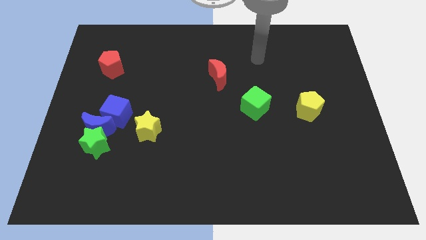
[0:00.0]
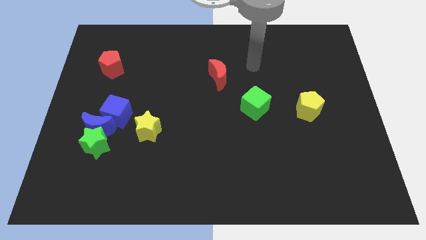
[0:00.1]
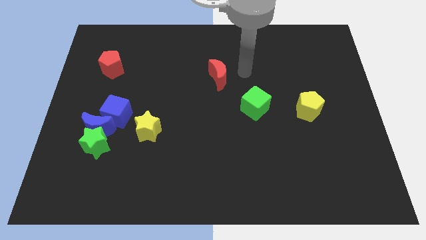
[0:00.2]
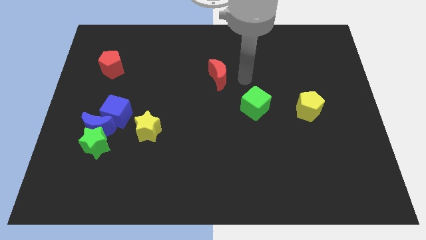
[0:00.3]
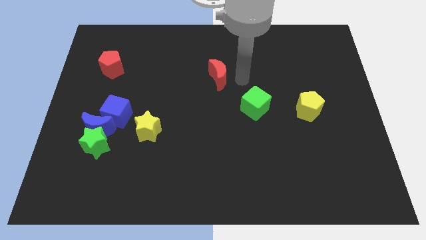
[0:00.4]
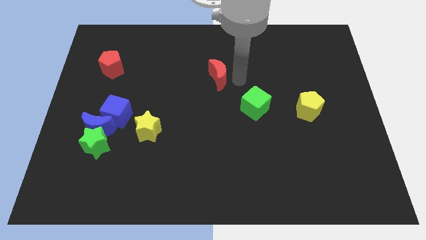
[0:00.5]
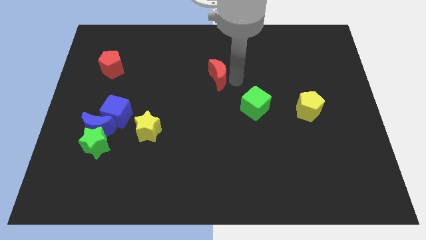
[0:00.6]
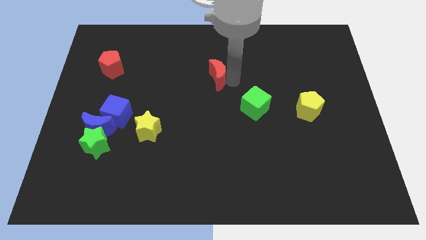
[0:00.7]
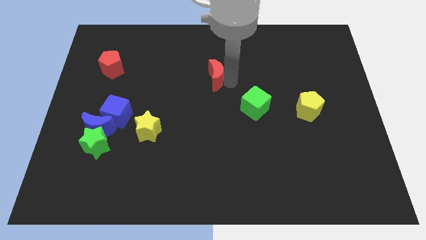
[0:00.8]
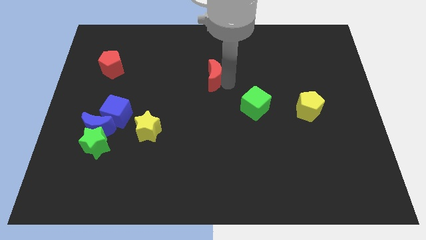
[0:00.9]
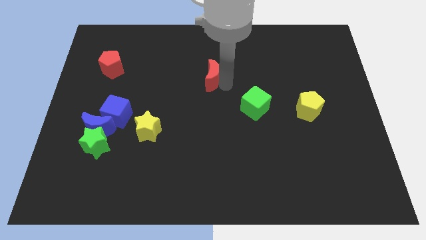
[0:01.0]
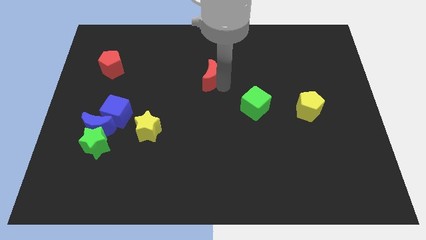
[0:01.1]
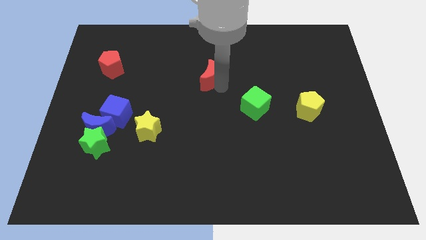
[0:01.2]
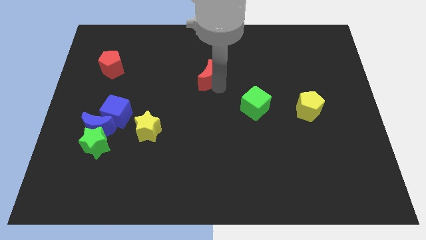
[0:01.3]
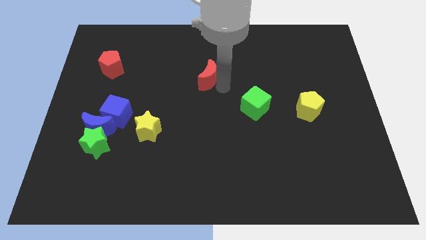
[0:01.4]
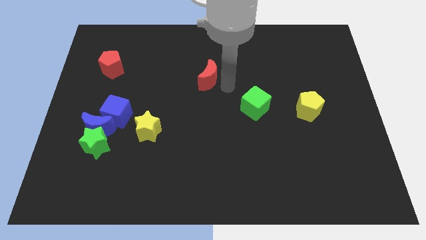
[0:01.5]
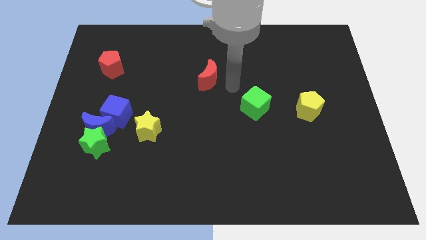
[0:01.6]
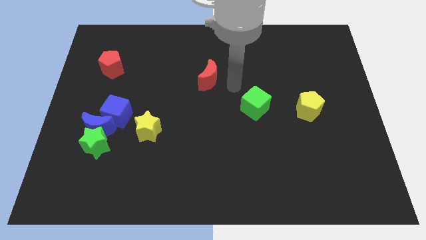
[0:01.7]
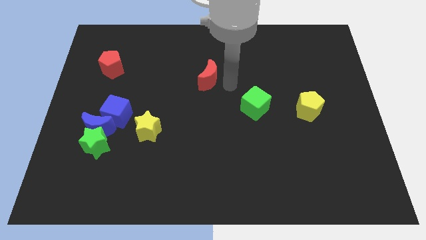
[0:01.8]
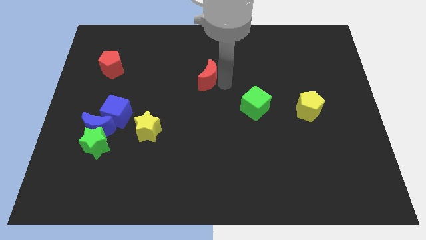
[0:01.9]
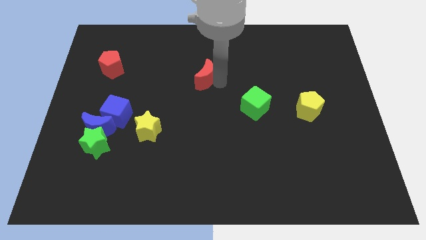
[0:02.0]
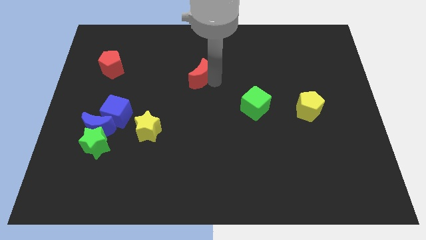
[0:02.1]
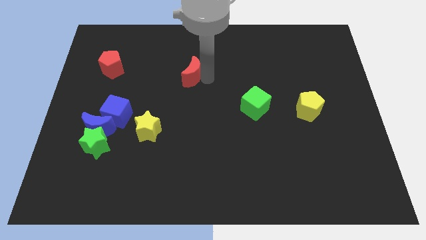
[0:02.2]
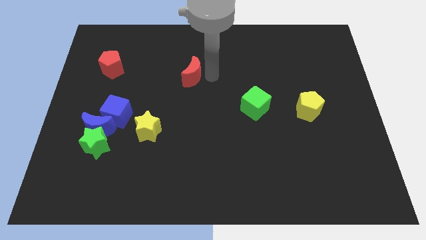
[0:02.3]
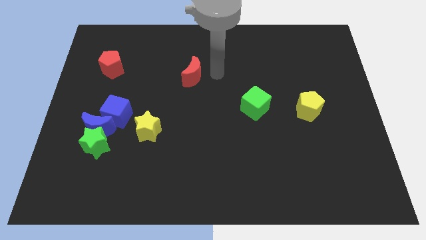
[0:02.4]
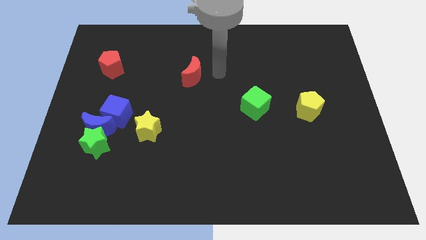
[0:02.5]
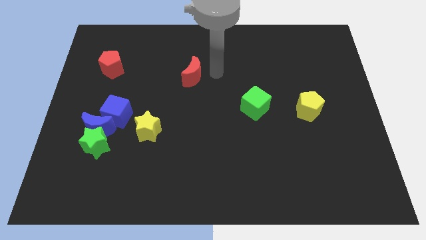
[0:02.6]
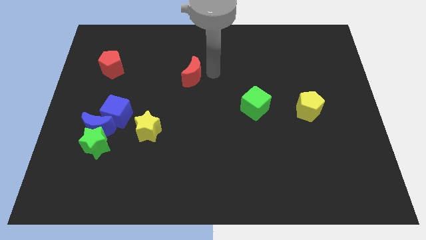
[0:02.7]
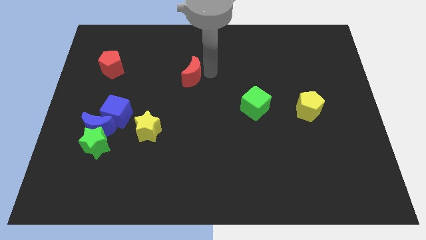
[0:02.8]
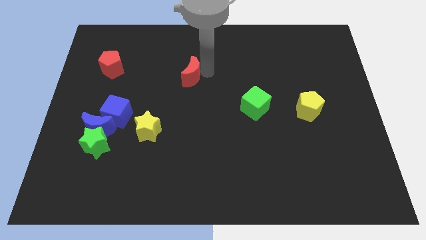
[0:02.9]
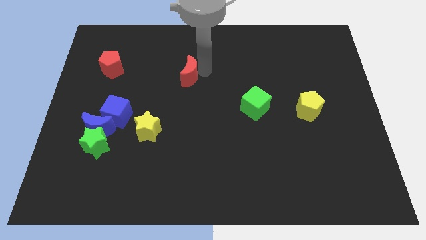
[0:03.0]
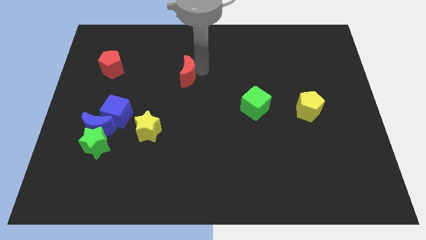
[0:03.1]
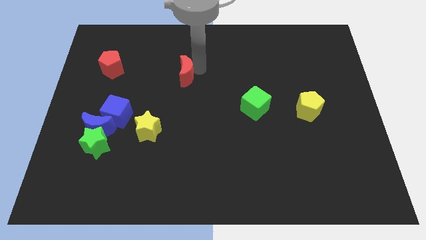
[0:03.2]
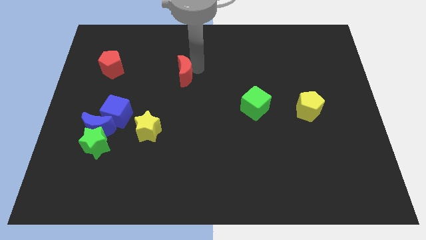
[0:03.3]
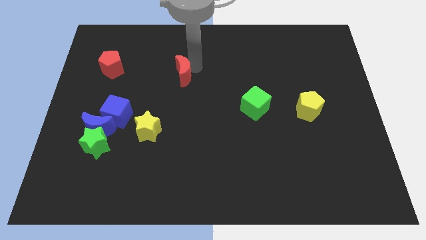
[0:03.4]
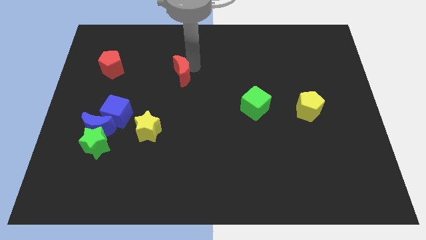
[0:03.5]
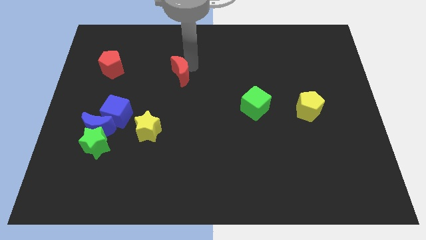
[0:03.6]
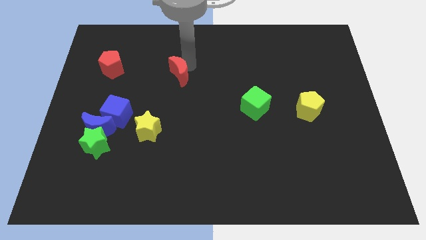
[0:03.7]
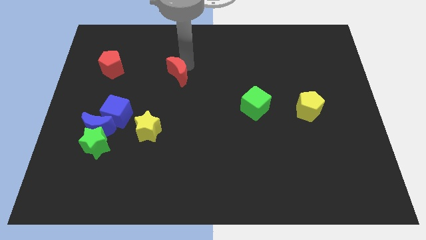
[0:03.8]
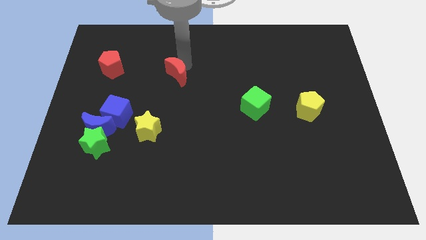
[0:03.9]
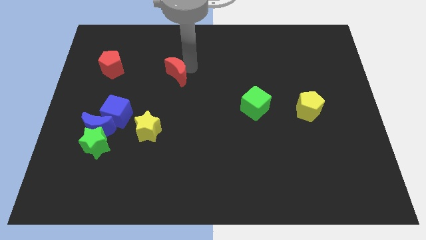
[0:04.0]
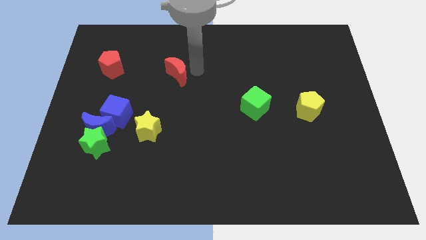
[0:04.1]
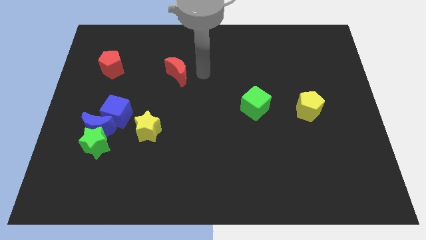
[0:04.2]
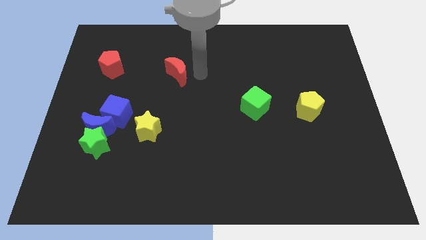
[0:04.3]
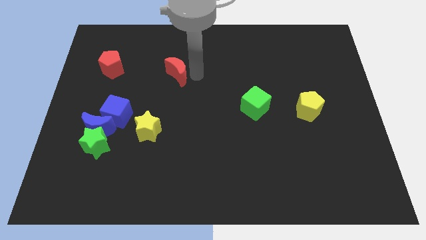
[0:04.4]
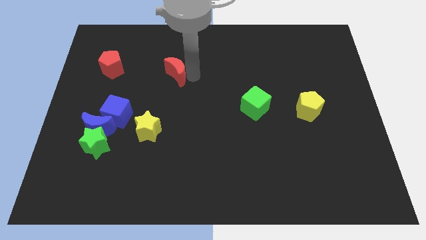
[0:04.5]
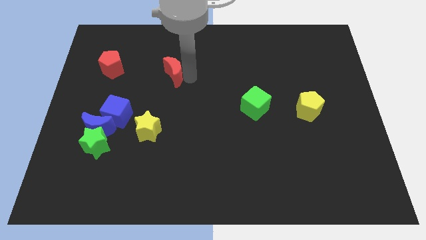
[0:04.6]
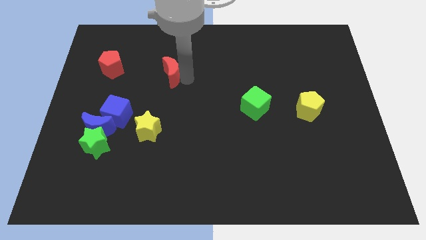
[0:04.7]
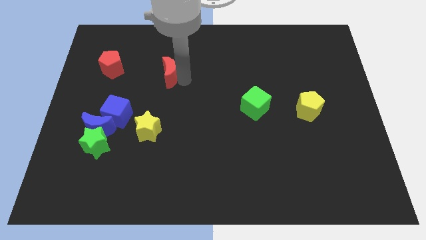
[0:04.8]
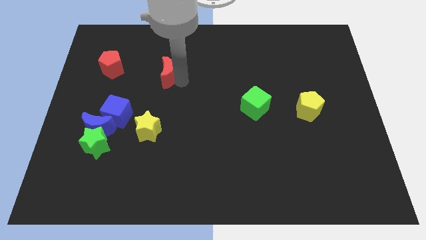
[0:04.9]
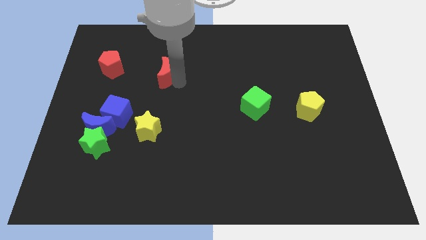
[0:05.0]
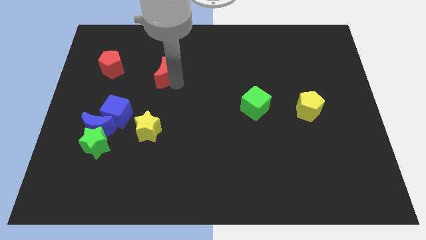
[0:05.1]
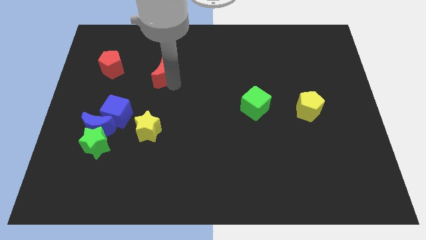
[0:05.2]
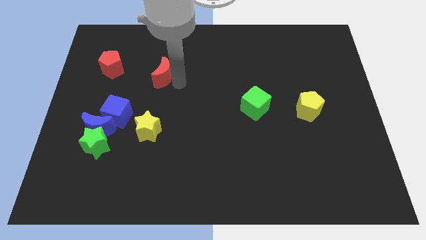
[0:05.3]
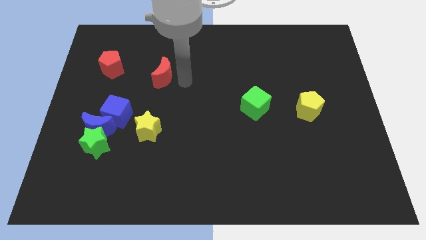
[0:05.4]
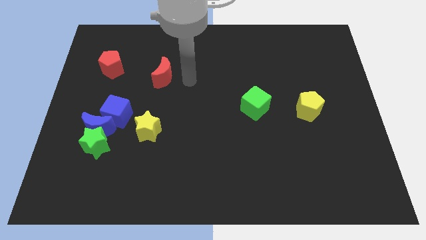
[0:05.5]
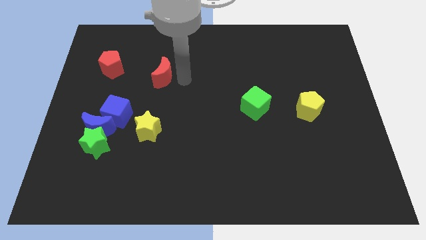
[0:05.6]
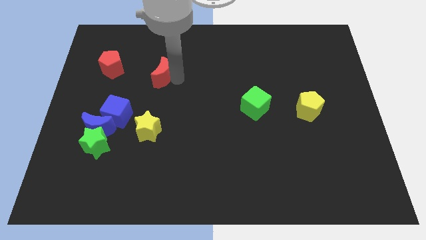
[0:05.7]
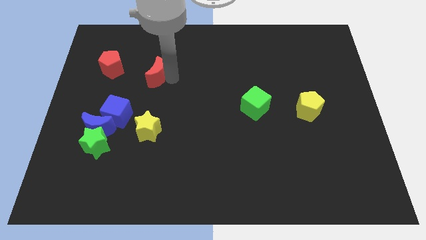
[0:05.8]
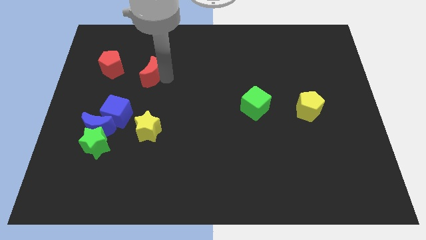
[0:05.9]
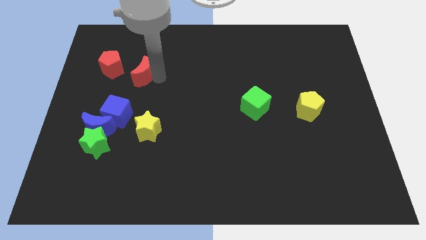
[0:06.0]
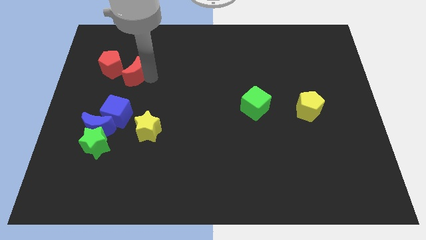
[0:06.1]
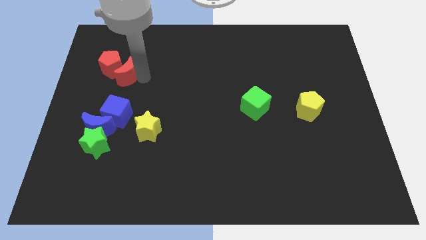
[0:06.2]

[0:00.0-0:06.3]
slide the red moon towards the red pentagon

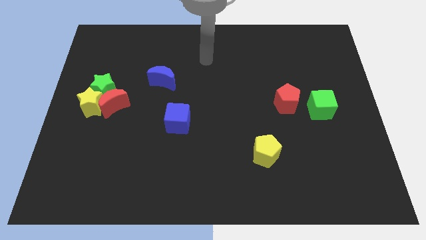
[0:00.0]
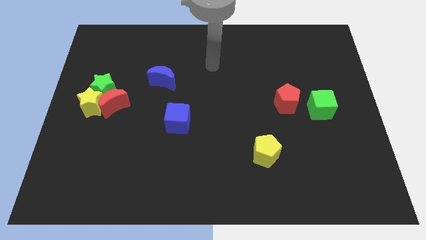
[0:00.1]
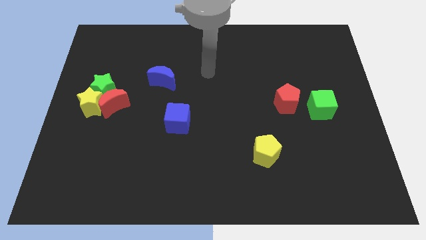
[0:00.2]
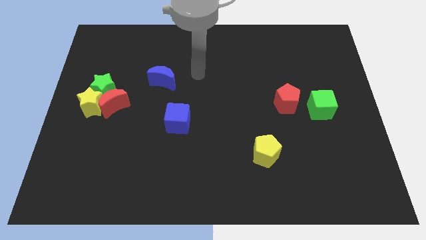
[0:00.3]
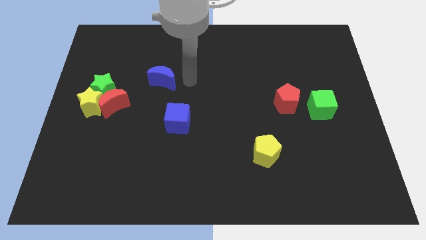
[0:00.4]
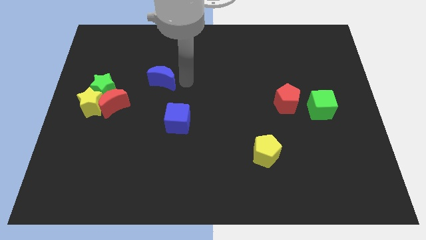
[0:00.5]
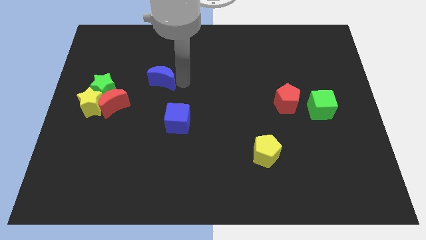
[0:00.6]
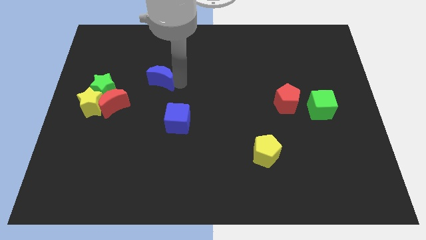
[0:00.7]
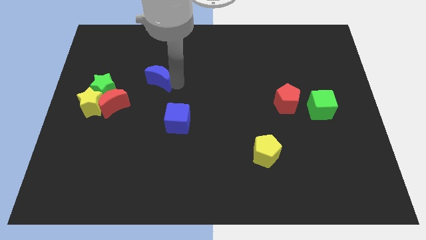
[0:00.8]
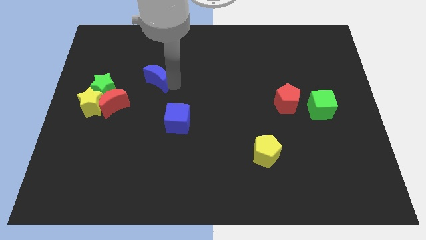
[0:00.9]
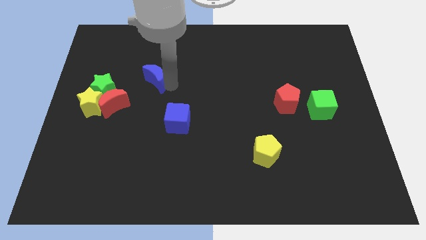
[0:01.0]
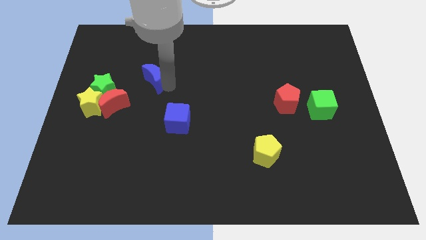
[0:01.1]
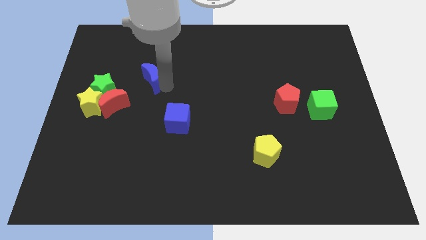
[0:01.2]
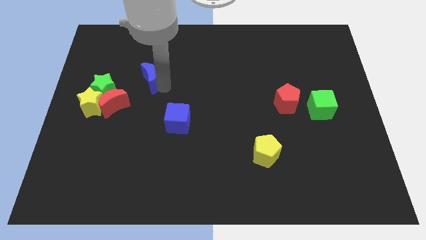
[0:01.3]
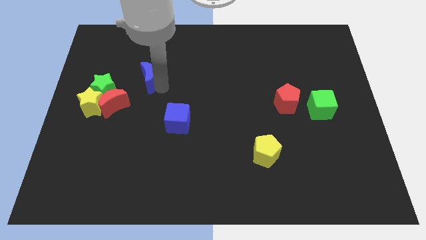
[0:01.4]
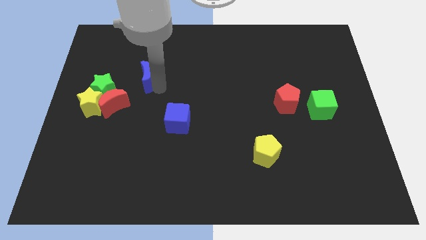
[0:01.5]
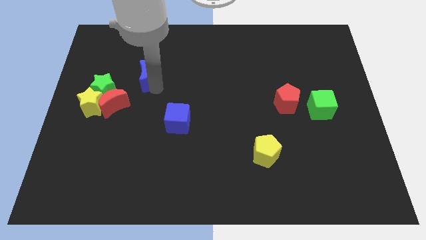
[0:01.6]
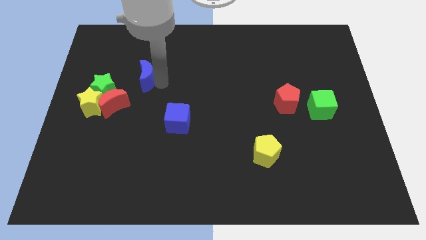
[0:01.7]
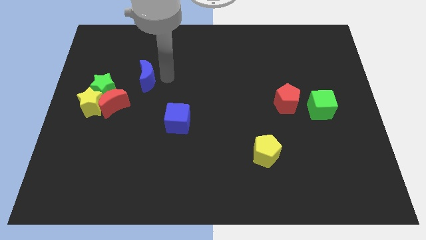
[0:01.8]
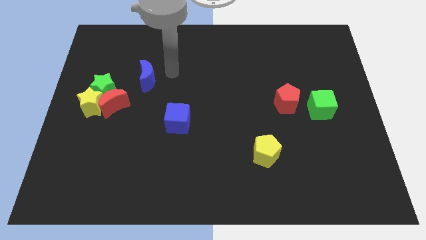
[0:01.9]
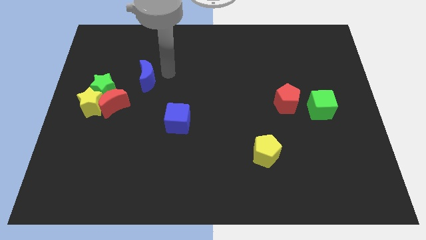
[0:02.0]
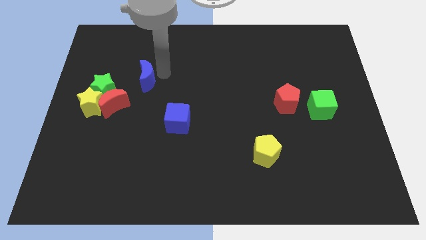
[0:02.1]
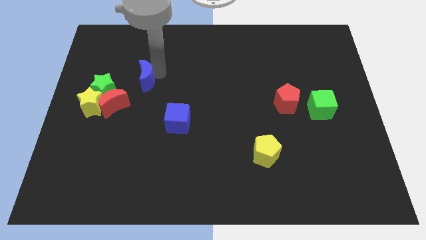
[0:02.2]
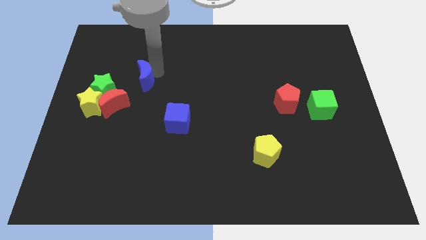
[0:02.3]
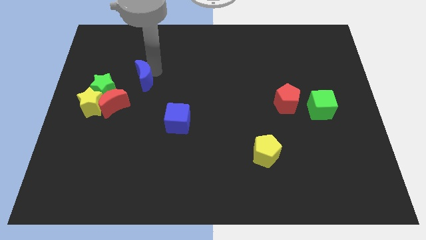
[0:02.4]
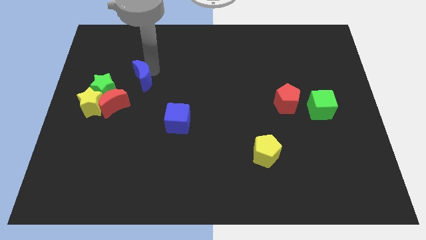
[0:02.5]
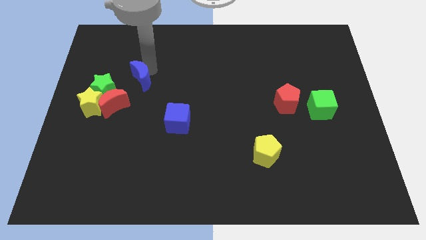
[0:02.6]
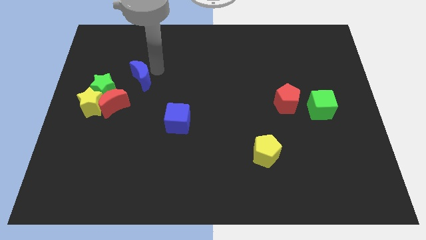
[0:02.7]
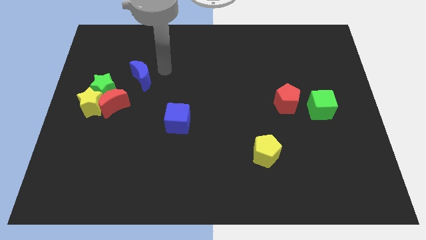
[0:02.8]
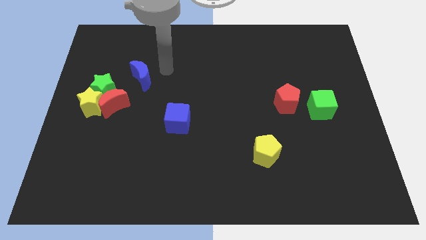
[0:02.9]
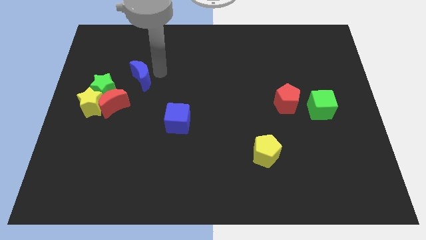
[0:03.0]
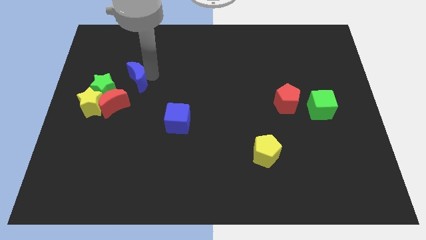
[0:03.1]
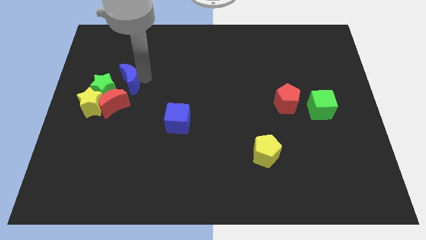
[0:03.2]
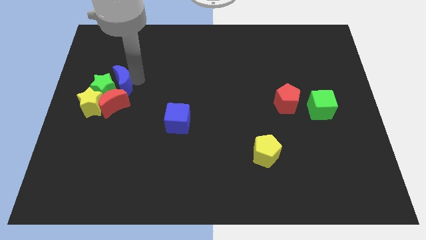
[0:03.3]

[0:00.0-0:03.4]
put the blue moon close to the green star
